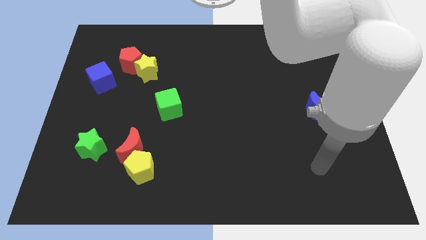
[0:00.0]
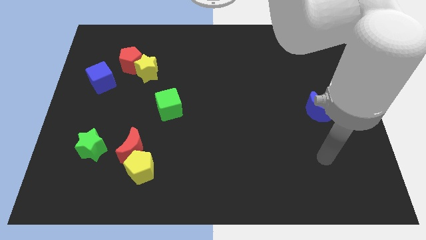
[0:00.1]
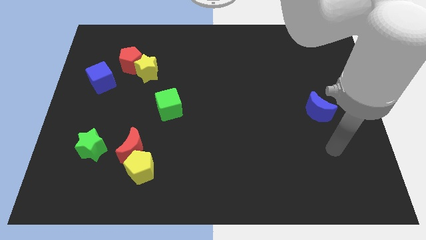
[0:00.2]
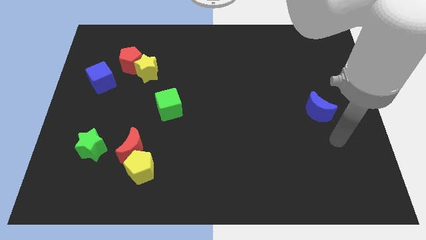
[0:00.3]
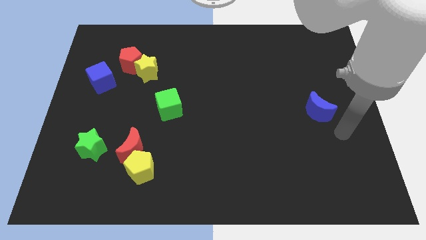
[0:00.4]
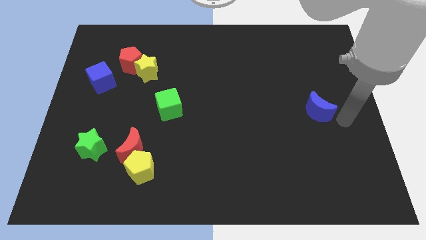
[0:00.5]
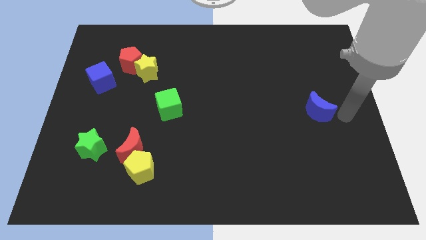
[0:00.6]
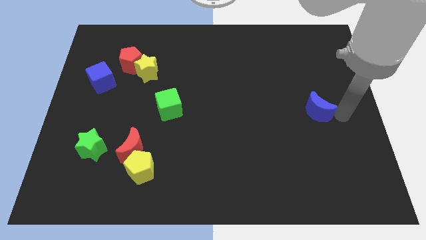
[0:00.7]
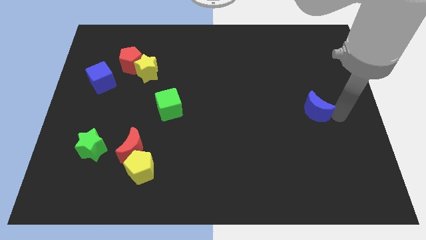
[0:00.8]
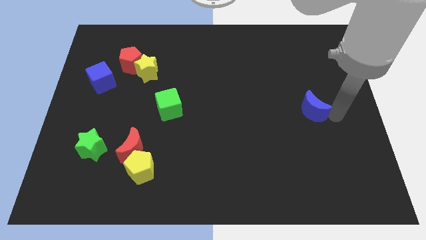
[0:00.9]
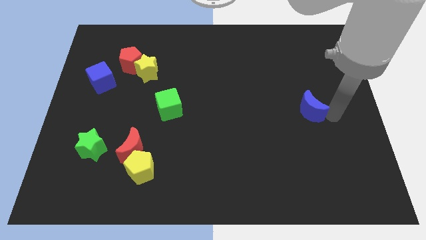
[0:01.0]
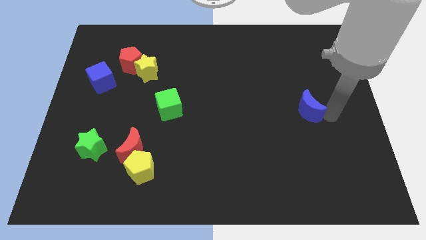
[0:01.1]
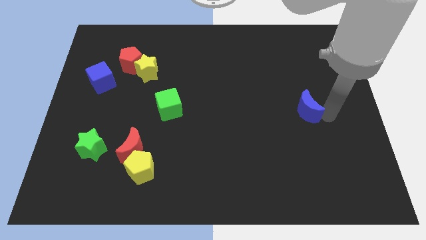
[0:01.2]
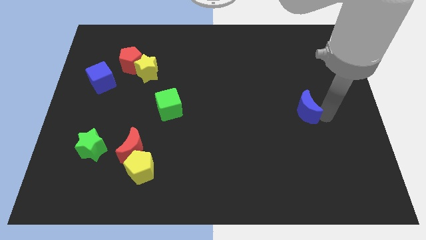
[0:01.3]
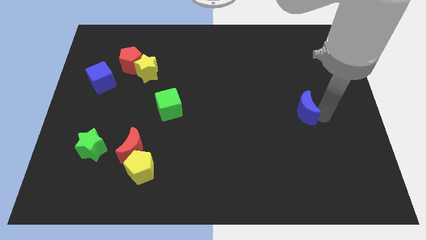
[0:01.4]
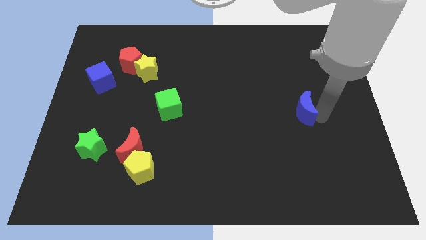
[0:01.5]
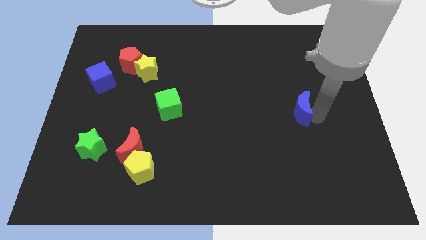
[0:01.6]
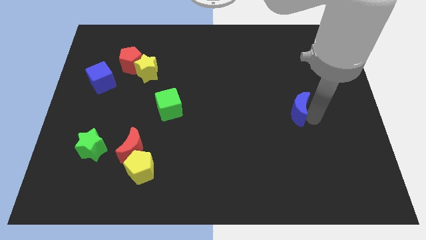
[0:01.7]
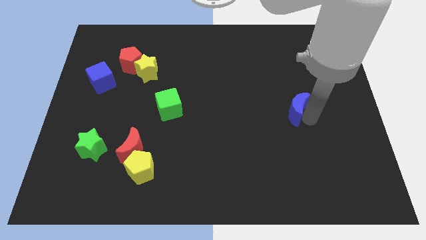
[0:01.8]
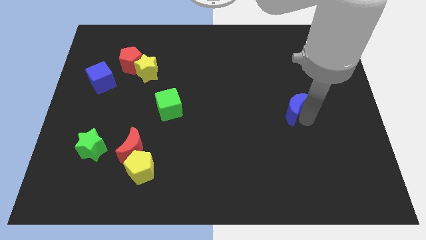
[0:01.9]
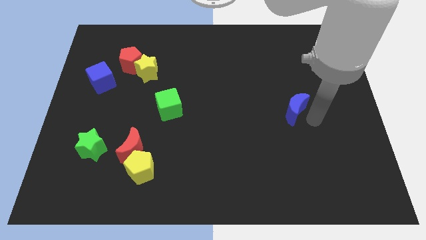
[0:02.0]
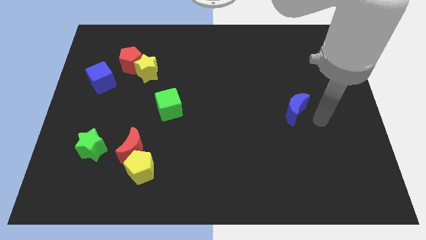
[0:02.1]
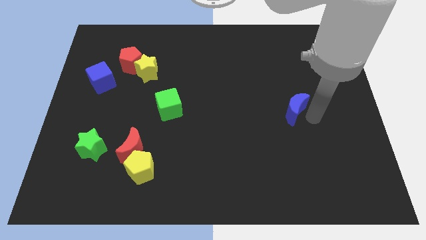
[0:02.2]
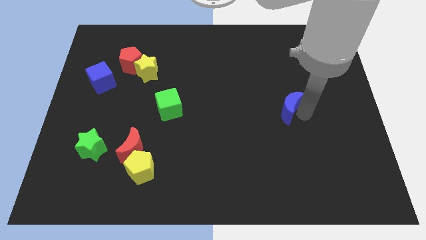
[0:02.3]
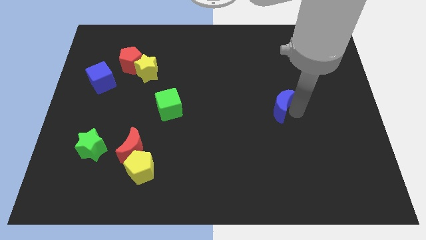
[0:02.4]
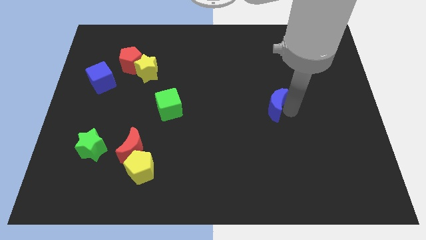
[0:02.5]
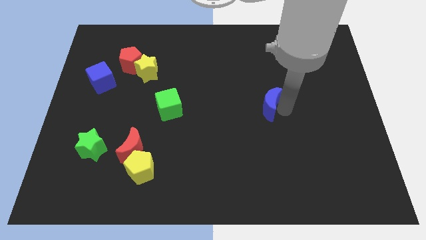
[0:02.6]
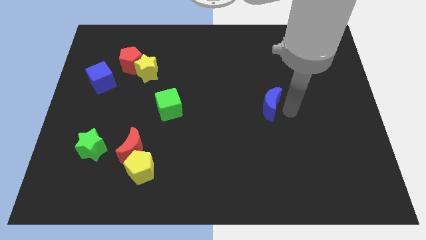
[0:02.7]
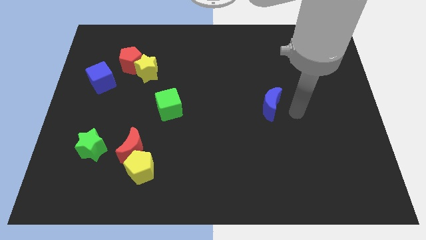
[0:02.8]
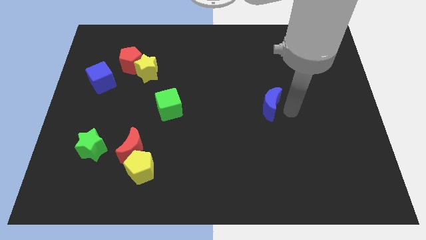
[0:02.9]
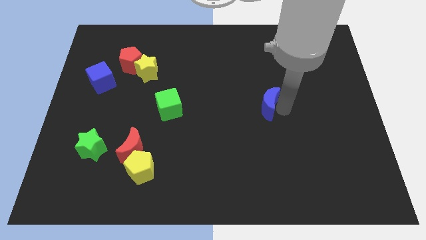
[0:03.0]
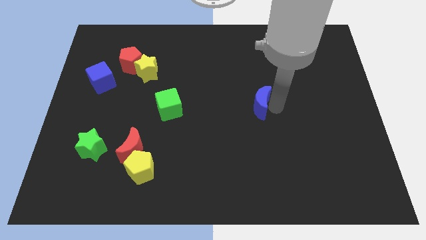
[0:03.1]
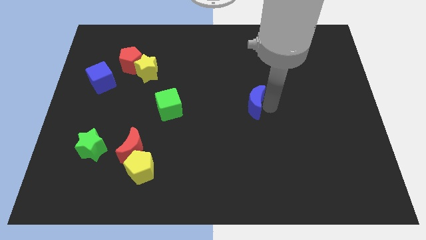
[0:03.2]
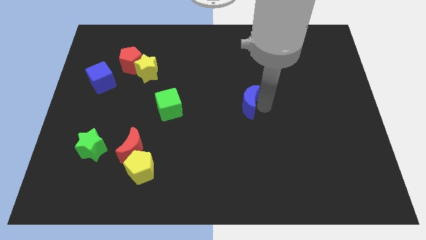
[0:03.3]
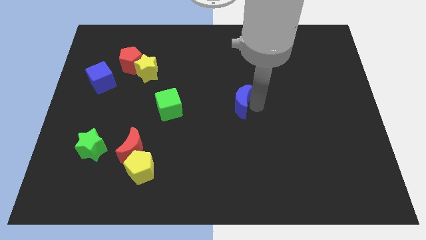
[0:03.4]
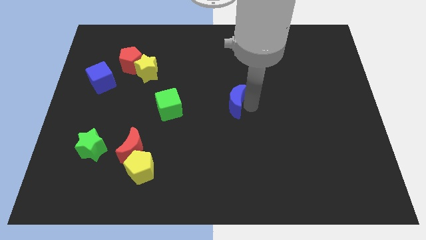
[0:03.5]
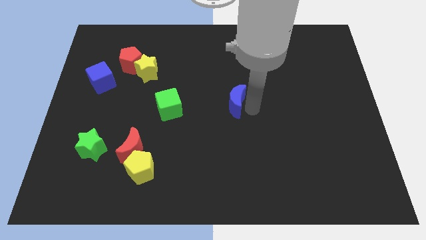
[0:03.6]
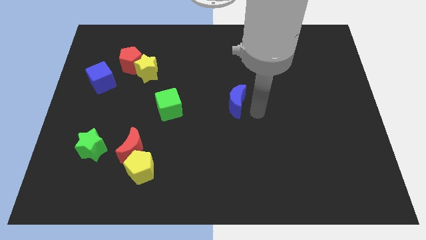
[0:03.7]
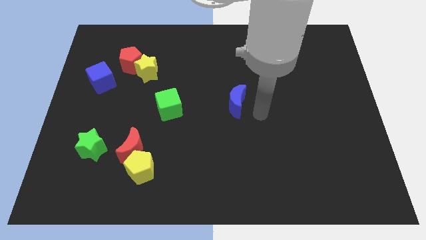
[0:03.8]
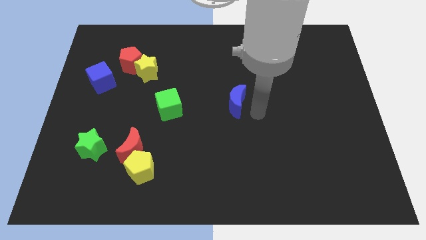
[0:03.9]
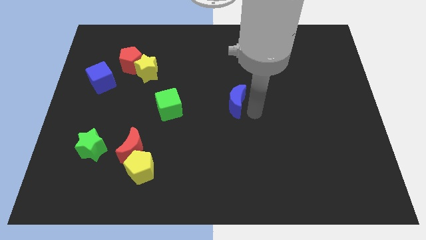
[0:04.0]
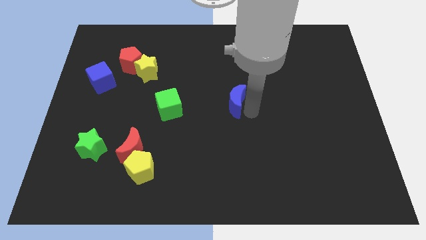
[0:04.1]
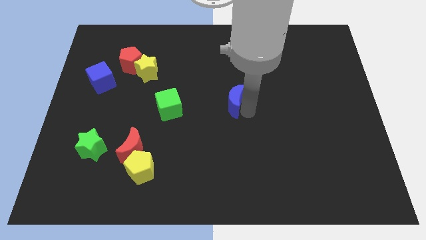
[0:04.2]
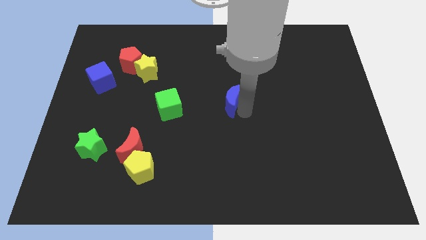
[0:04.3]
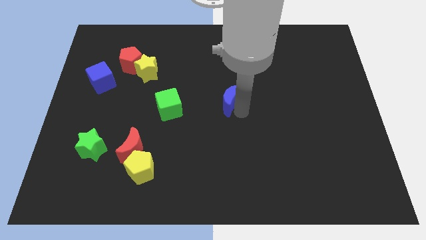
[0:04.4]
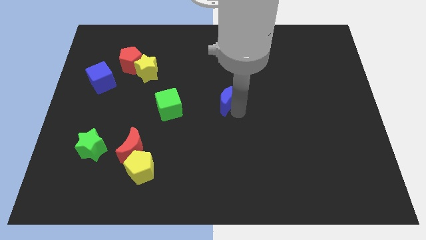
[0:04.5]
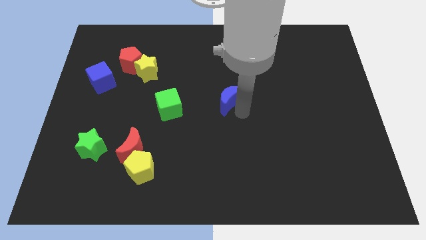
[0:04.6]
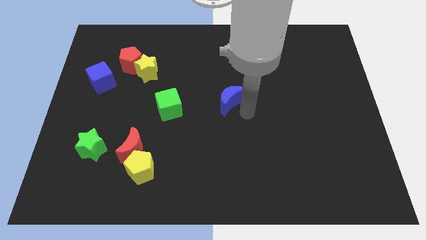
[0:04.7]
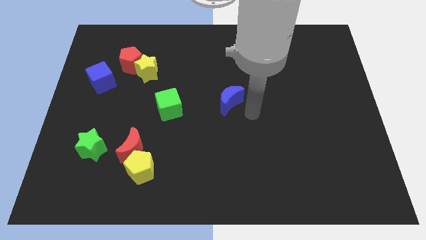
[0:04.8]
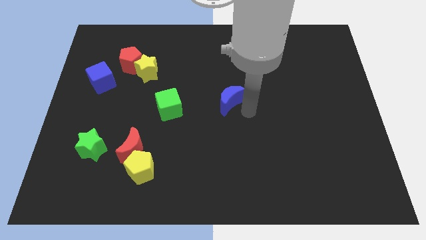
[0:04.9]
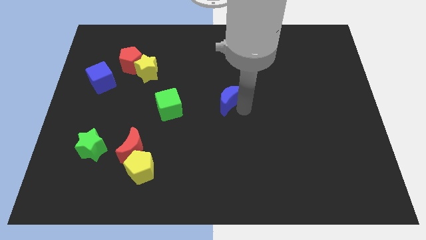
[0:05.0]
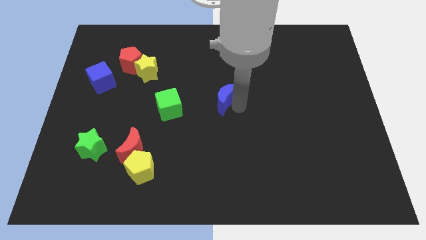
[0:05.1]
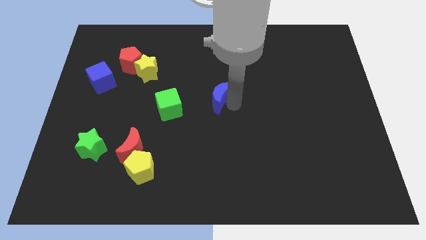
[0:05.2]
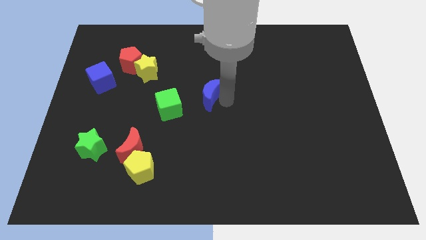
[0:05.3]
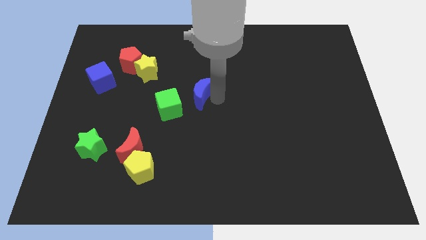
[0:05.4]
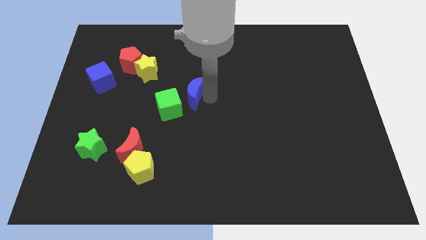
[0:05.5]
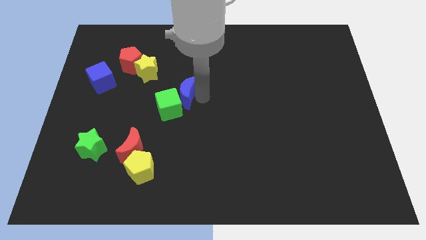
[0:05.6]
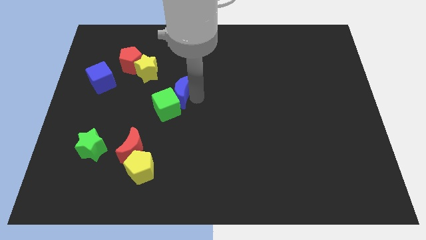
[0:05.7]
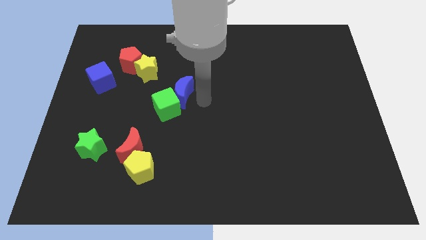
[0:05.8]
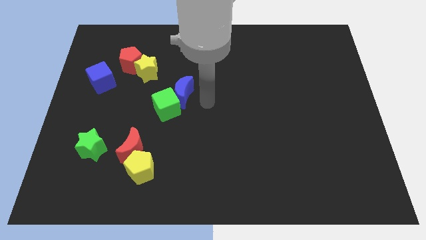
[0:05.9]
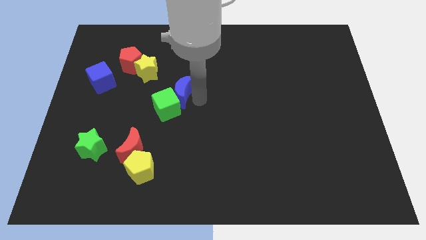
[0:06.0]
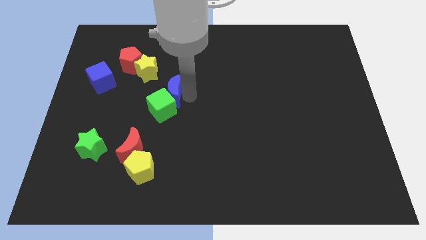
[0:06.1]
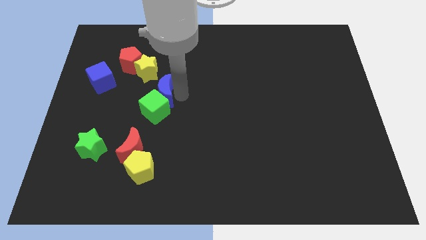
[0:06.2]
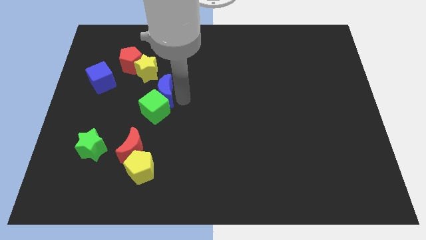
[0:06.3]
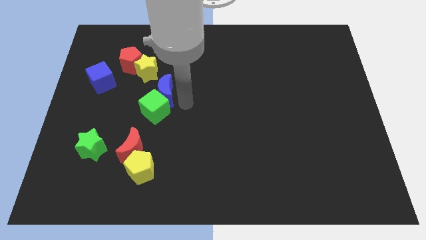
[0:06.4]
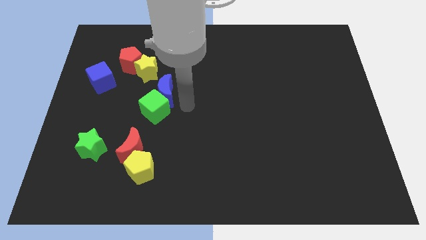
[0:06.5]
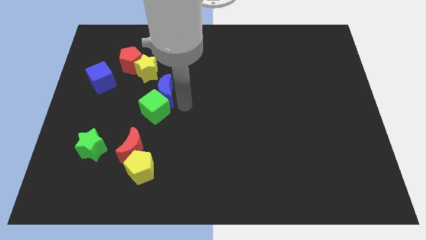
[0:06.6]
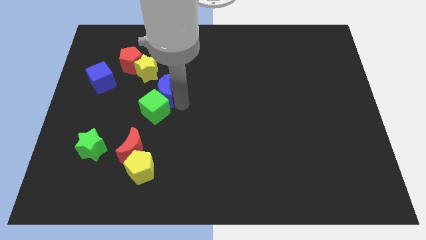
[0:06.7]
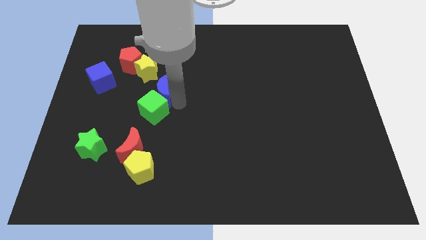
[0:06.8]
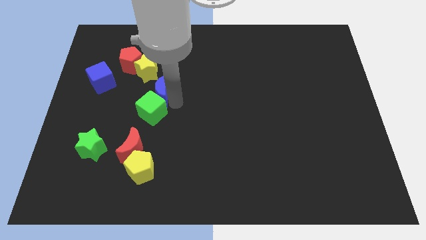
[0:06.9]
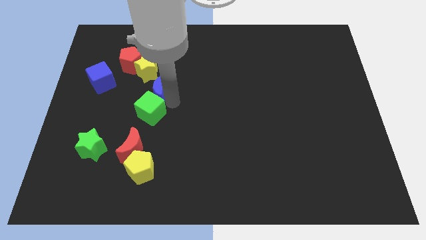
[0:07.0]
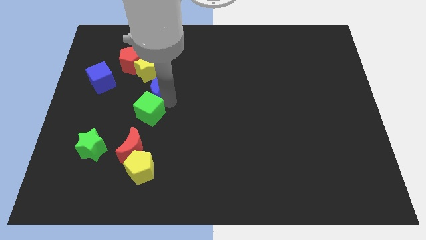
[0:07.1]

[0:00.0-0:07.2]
slide the blue moon right of the blue cube

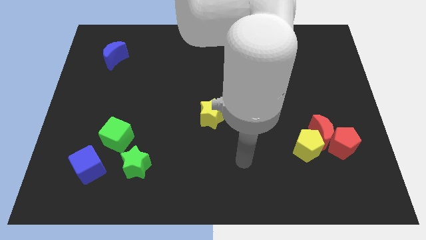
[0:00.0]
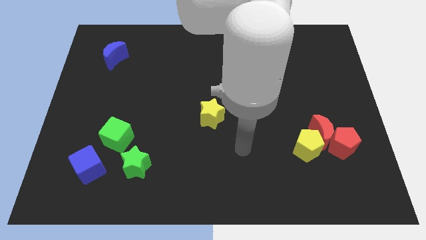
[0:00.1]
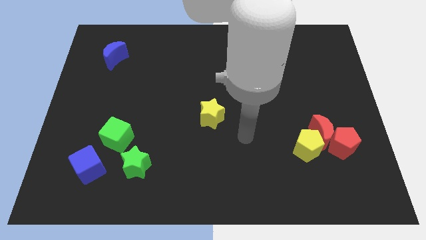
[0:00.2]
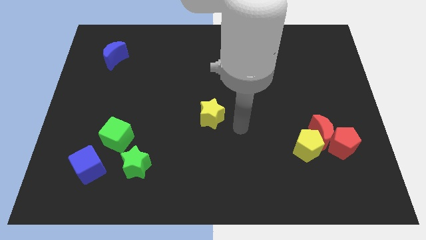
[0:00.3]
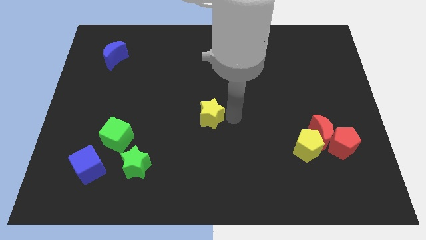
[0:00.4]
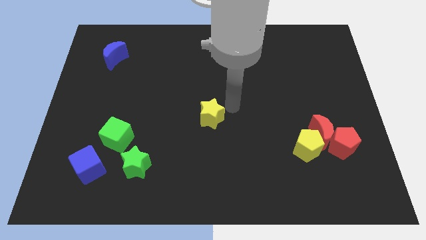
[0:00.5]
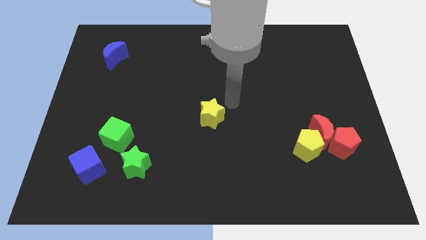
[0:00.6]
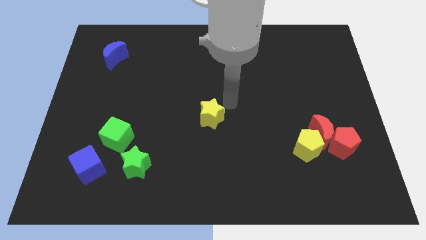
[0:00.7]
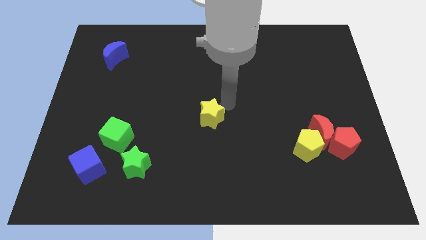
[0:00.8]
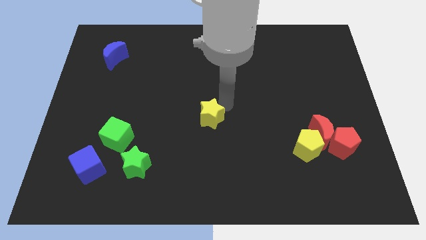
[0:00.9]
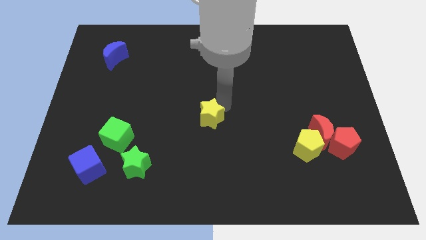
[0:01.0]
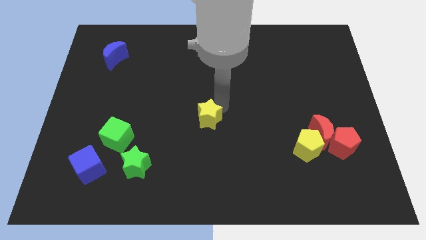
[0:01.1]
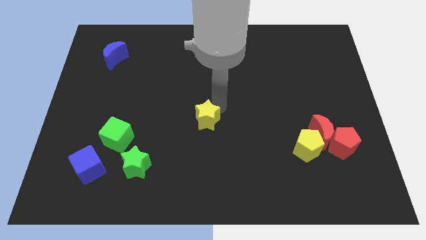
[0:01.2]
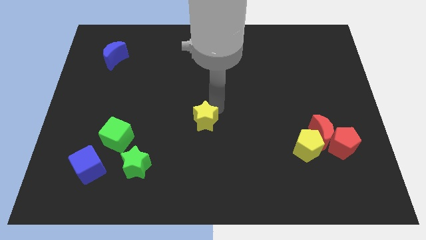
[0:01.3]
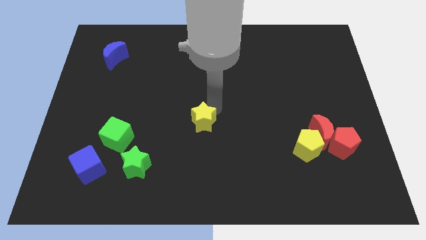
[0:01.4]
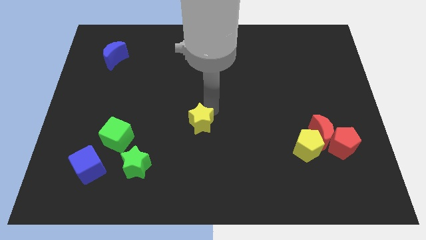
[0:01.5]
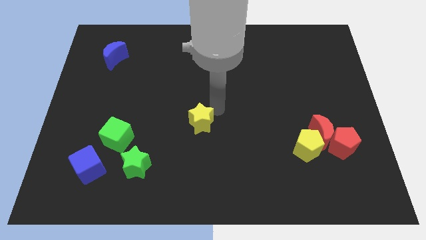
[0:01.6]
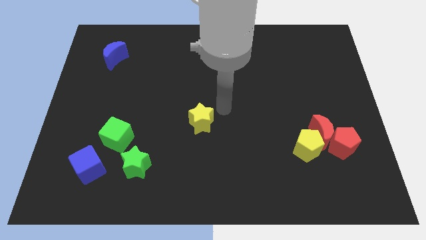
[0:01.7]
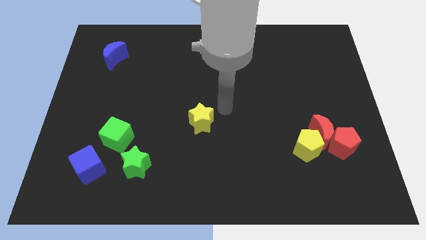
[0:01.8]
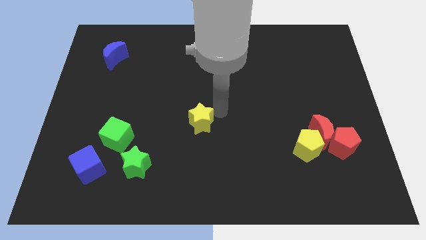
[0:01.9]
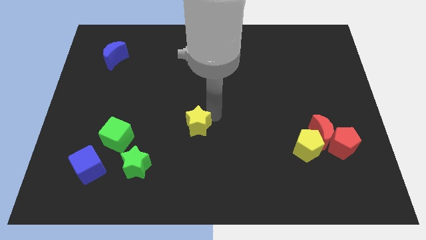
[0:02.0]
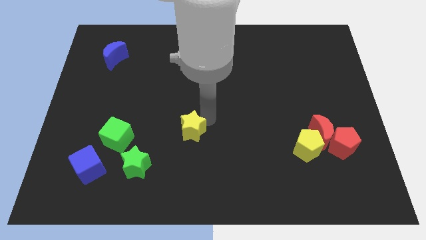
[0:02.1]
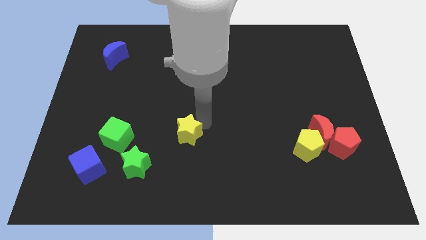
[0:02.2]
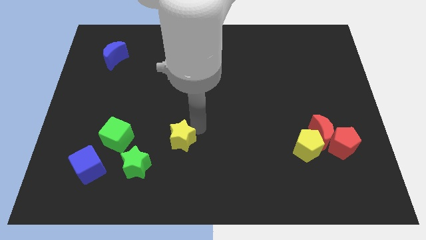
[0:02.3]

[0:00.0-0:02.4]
push the yellow star to the top right side of the green star
